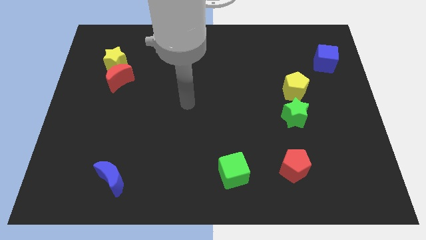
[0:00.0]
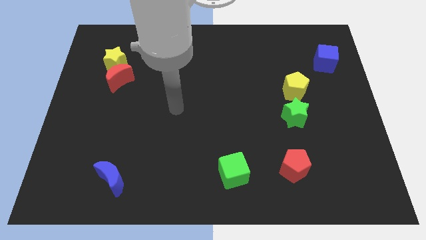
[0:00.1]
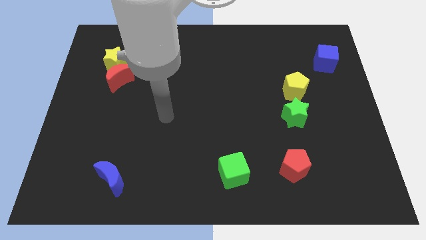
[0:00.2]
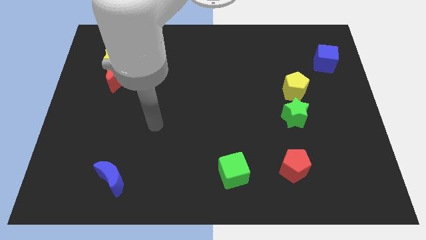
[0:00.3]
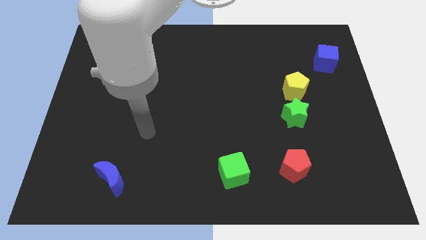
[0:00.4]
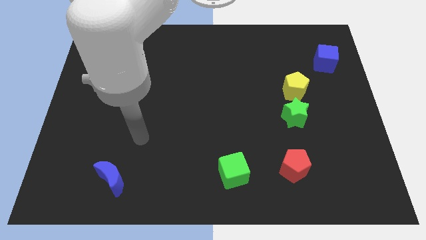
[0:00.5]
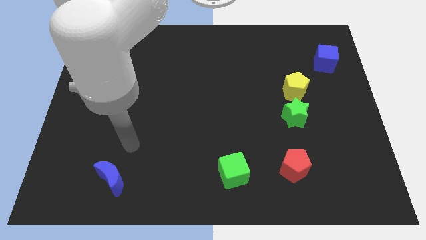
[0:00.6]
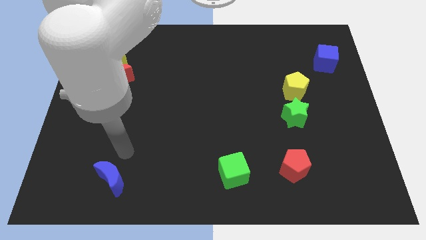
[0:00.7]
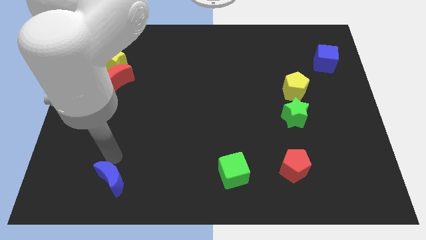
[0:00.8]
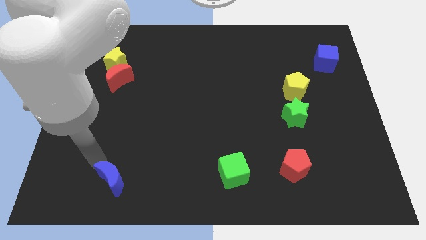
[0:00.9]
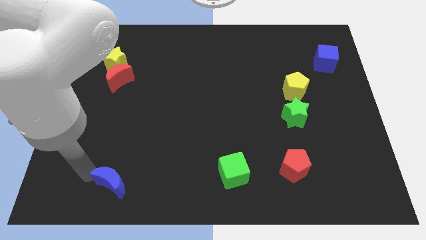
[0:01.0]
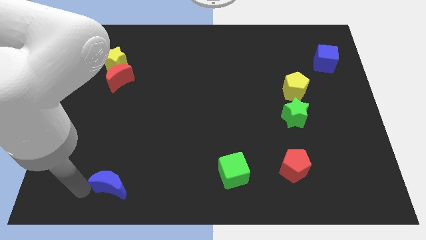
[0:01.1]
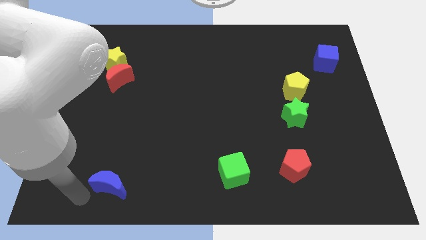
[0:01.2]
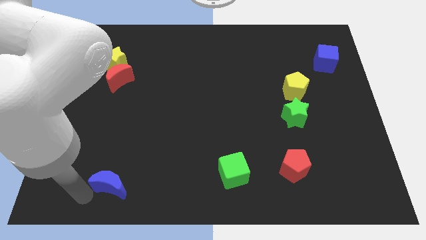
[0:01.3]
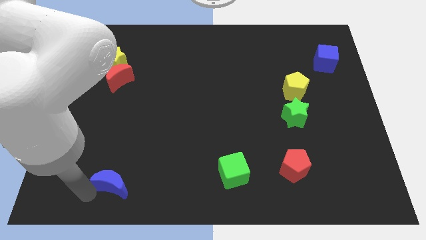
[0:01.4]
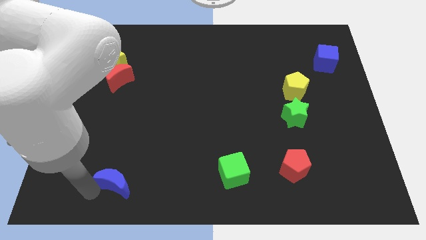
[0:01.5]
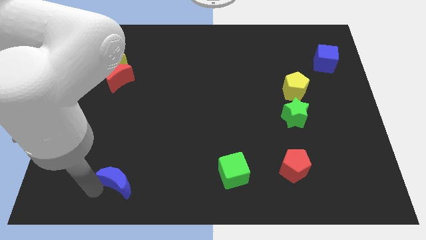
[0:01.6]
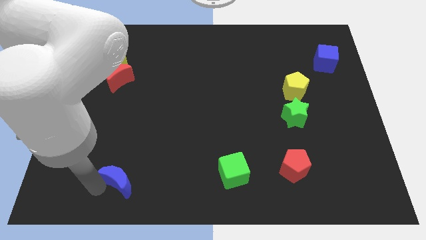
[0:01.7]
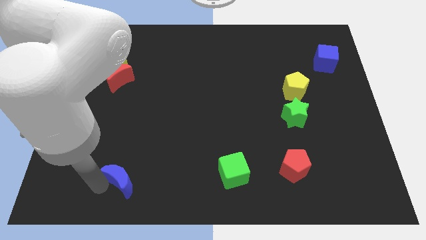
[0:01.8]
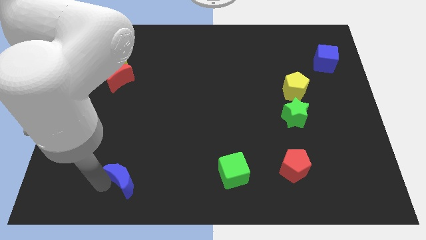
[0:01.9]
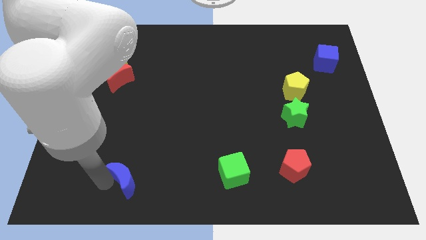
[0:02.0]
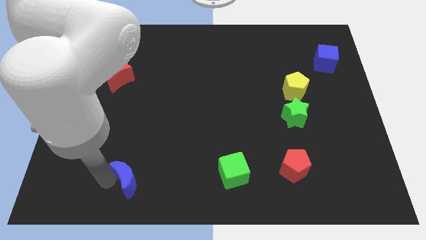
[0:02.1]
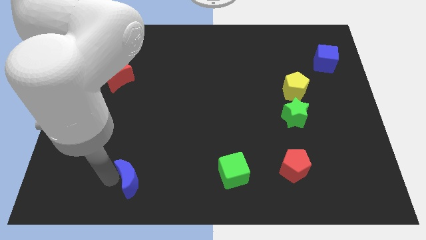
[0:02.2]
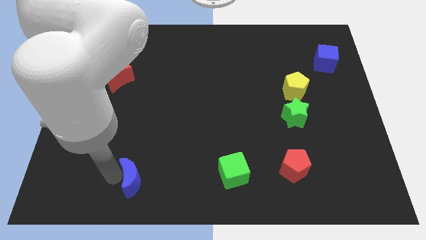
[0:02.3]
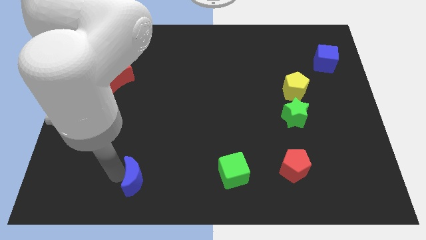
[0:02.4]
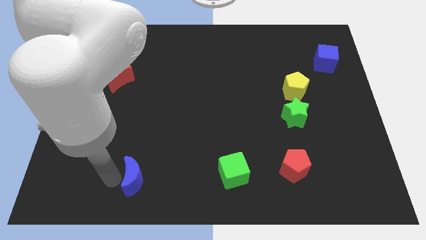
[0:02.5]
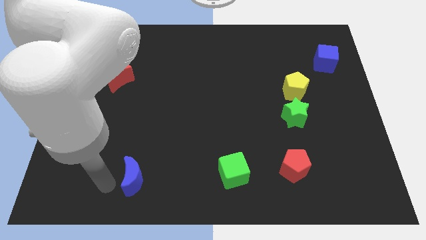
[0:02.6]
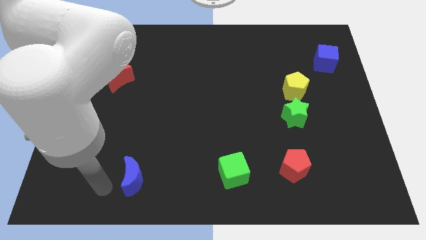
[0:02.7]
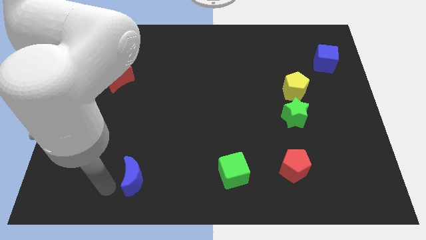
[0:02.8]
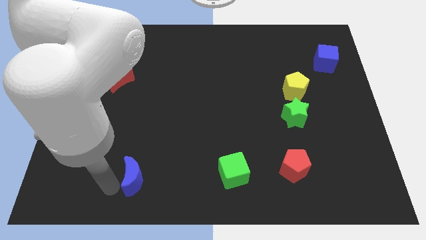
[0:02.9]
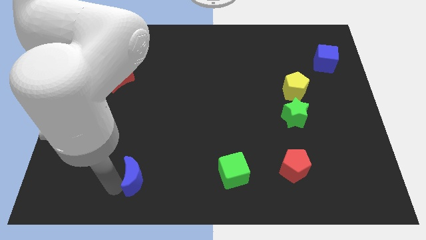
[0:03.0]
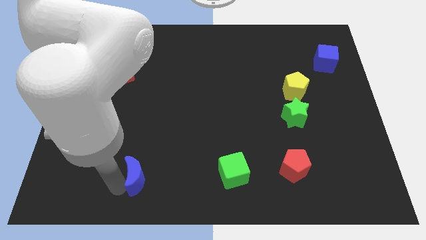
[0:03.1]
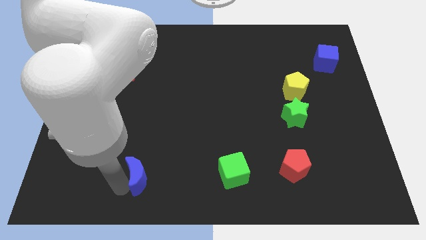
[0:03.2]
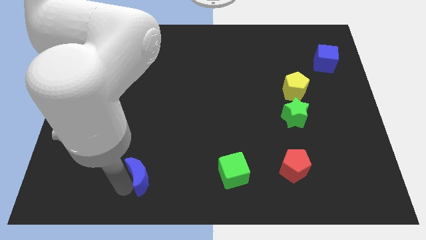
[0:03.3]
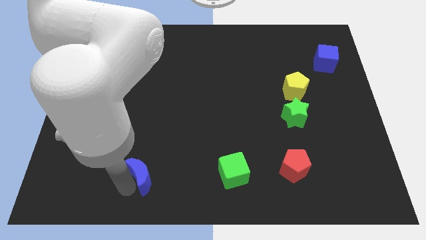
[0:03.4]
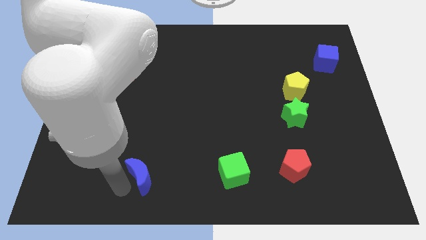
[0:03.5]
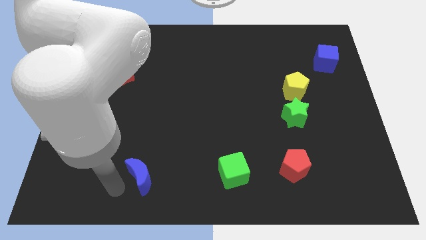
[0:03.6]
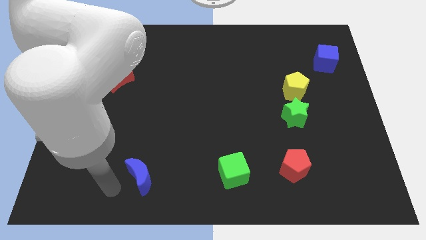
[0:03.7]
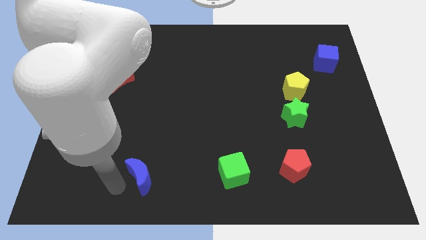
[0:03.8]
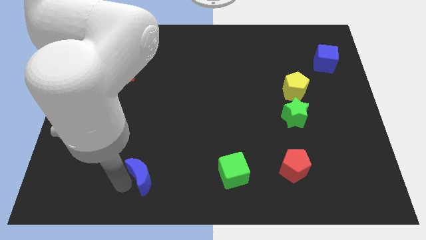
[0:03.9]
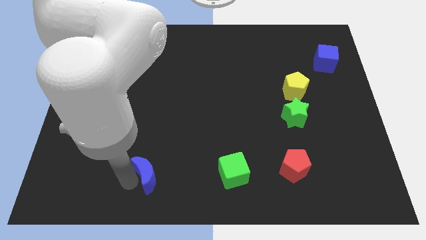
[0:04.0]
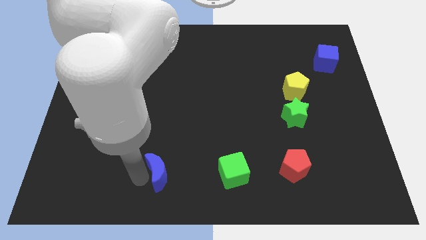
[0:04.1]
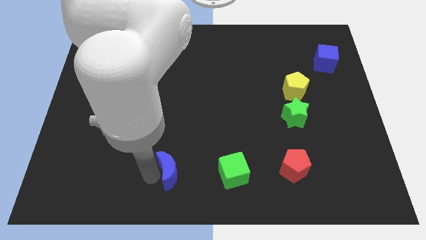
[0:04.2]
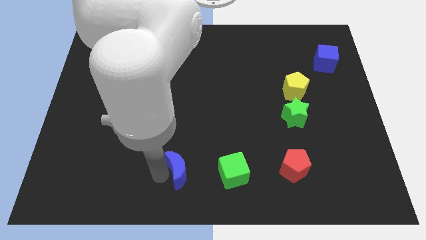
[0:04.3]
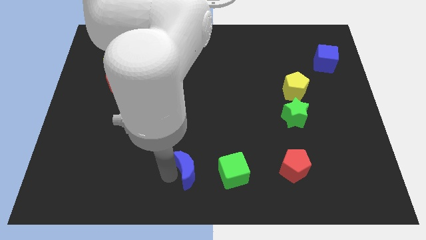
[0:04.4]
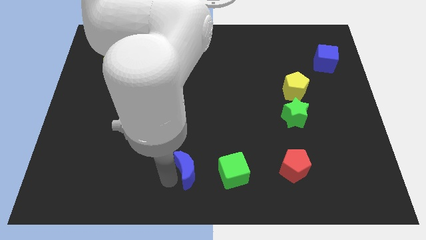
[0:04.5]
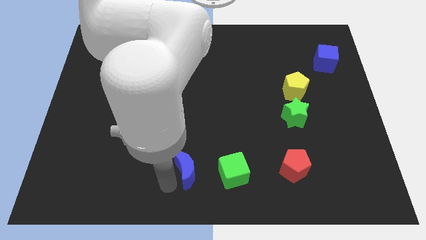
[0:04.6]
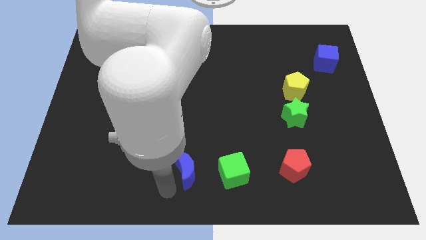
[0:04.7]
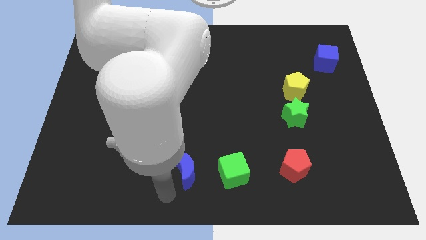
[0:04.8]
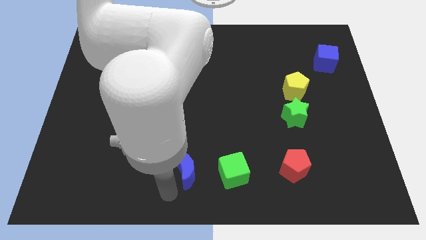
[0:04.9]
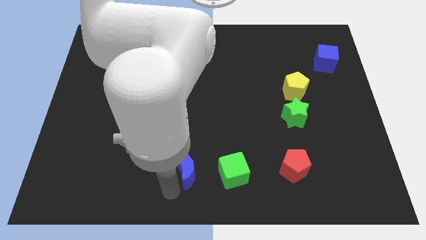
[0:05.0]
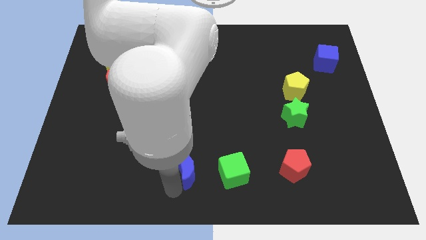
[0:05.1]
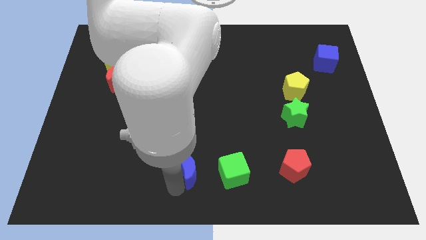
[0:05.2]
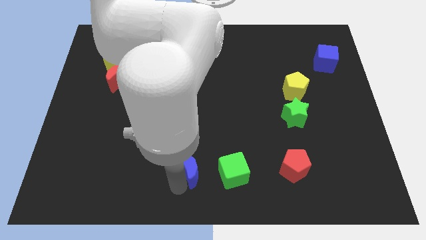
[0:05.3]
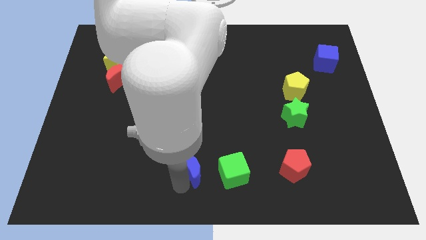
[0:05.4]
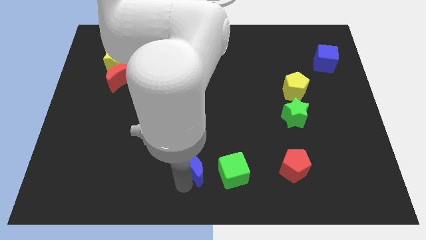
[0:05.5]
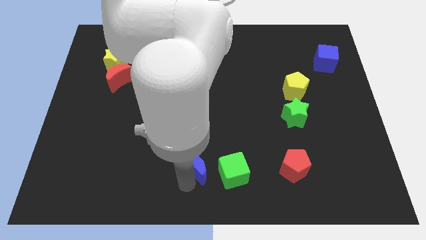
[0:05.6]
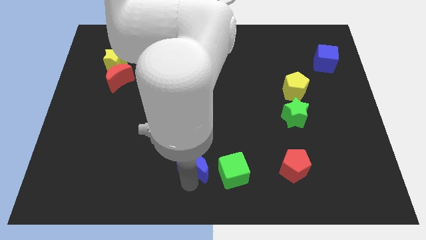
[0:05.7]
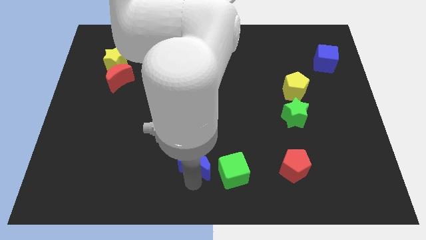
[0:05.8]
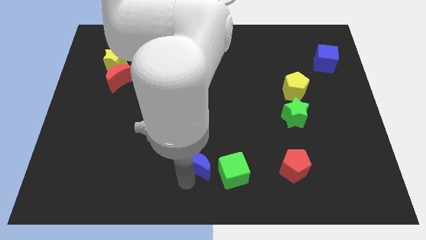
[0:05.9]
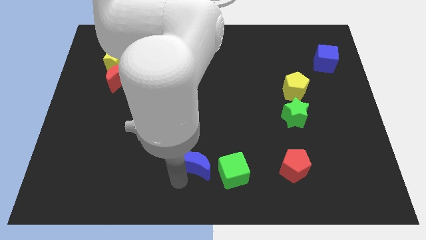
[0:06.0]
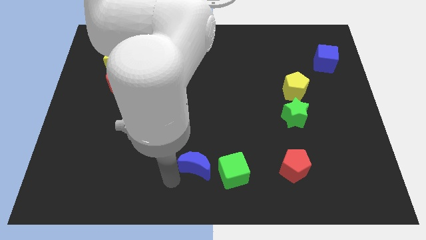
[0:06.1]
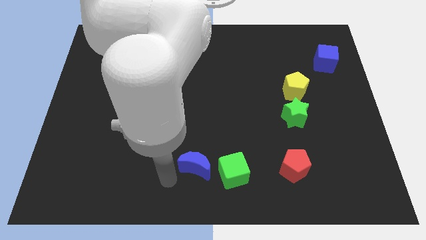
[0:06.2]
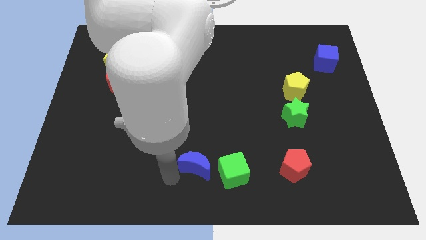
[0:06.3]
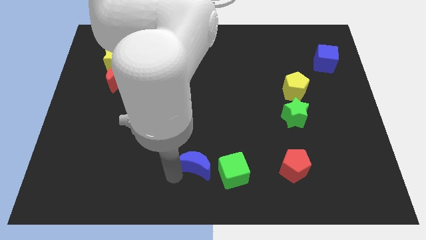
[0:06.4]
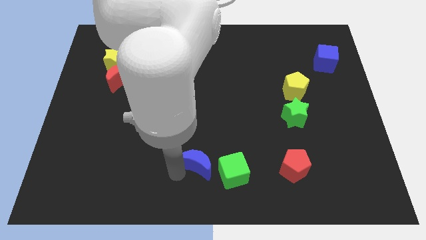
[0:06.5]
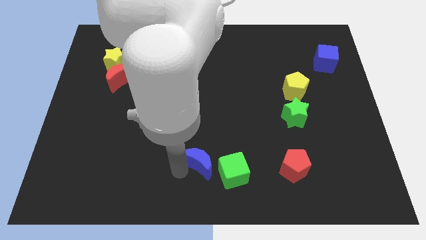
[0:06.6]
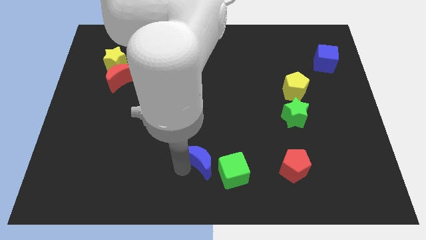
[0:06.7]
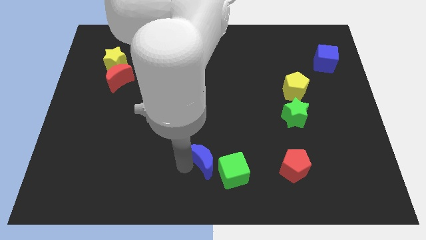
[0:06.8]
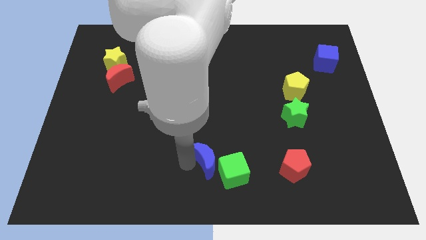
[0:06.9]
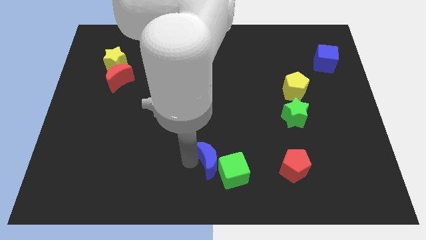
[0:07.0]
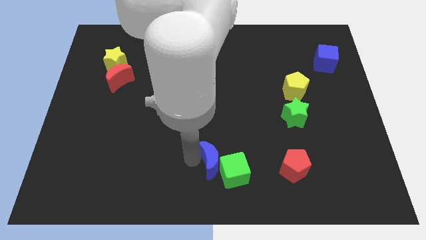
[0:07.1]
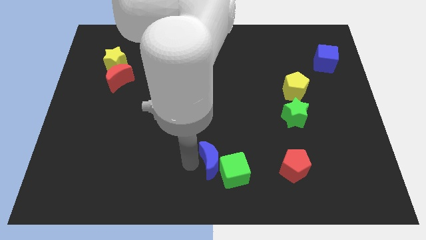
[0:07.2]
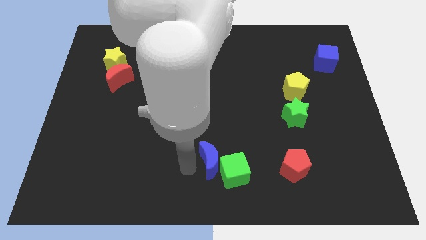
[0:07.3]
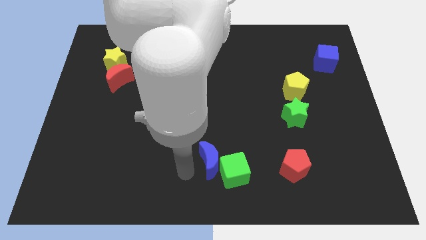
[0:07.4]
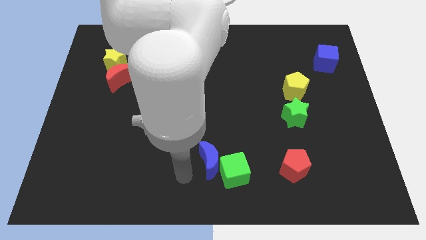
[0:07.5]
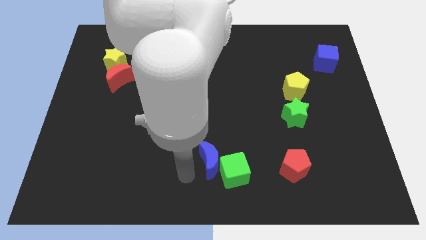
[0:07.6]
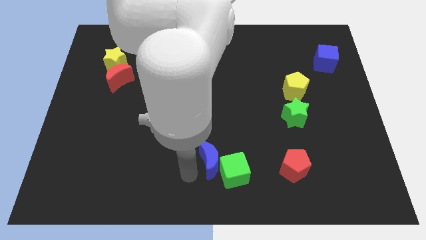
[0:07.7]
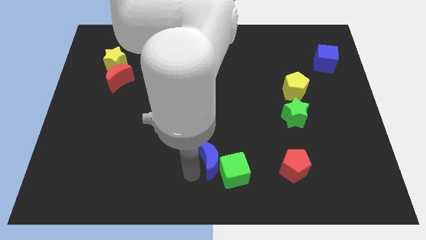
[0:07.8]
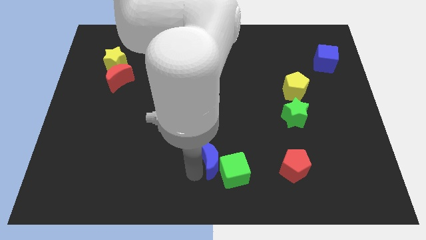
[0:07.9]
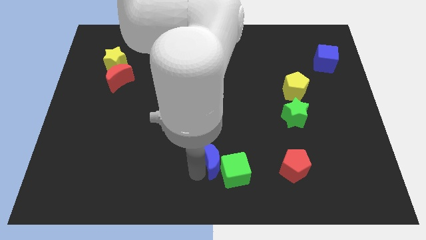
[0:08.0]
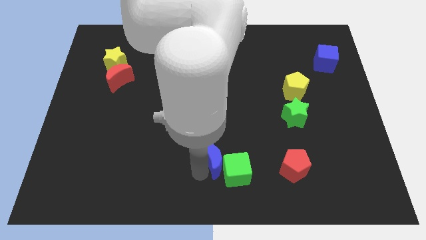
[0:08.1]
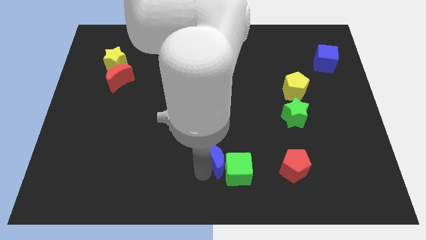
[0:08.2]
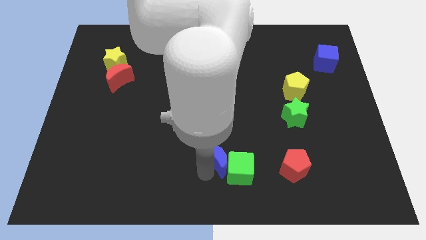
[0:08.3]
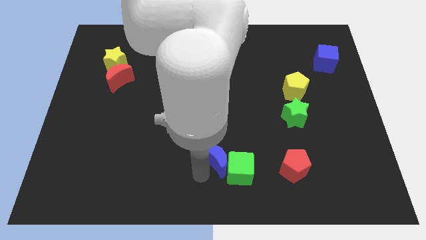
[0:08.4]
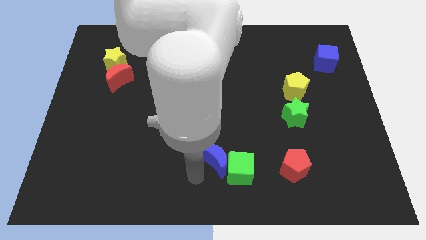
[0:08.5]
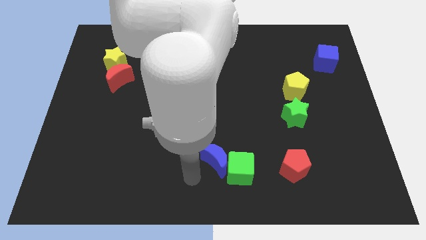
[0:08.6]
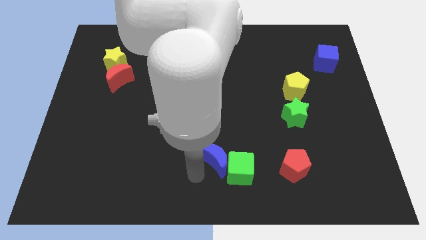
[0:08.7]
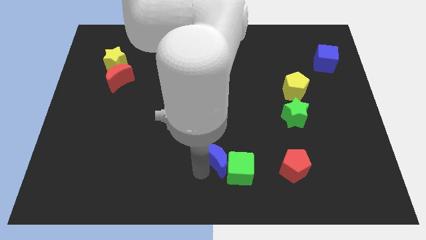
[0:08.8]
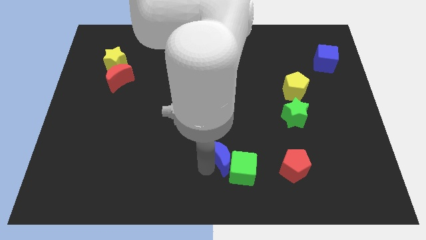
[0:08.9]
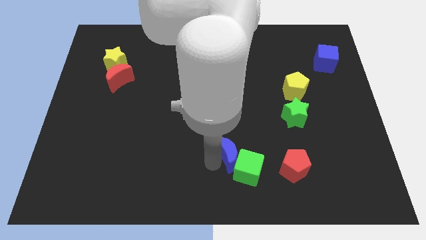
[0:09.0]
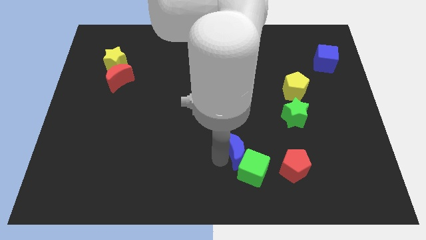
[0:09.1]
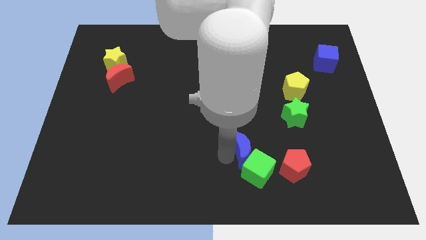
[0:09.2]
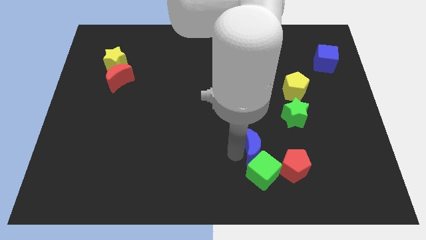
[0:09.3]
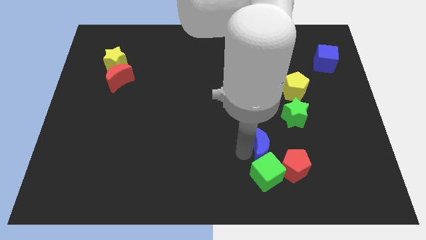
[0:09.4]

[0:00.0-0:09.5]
put the blue moon diagonally down and to the left of the green star
